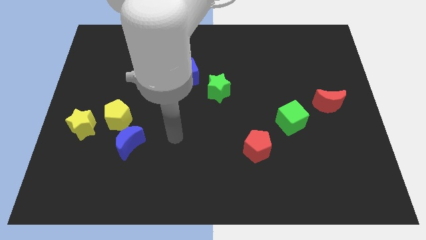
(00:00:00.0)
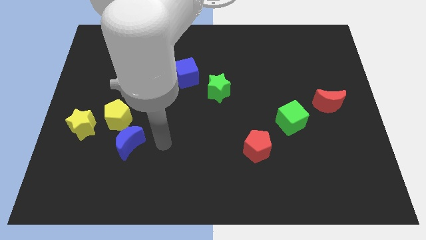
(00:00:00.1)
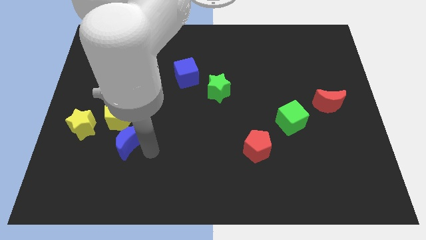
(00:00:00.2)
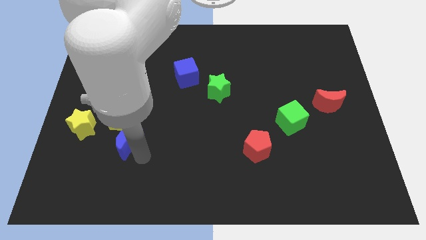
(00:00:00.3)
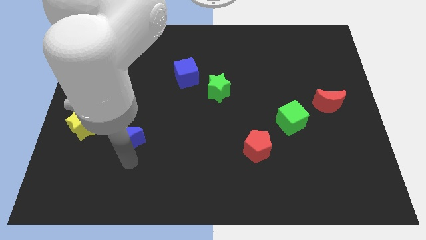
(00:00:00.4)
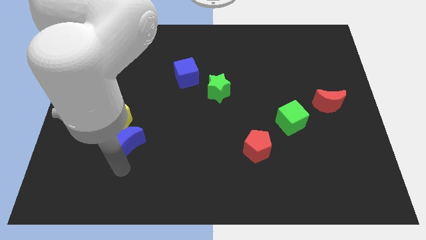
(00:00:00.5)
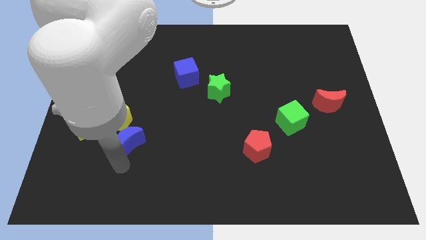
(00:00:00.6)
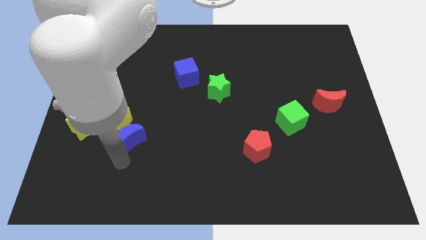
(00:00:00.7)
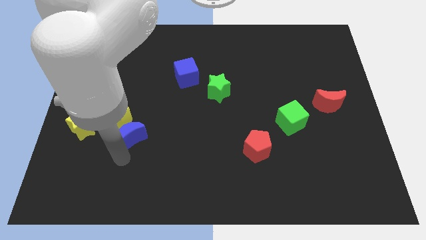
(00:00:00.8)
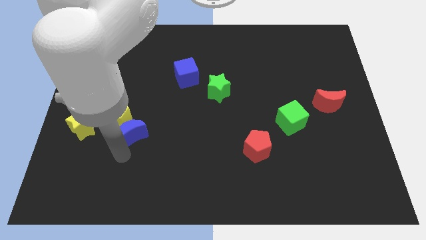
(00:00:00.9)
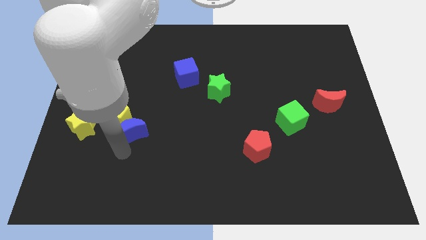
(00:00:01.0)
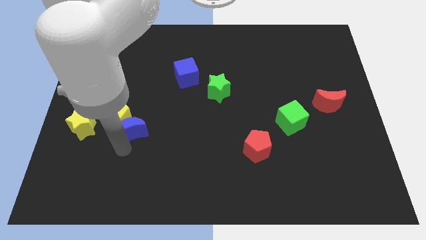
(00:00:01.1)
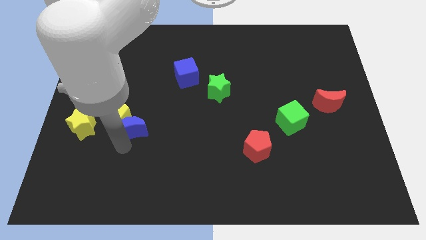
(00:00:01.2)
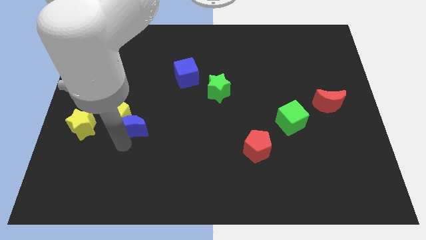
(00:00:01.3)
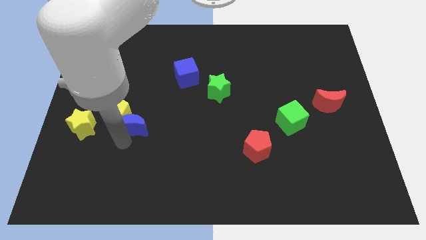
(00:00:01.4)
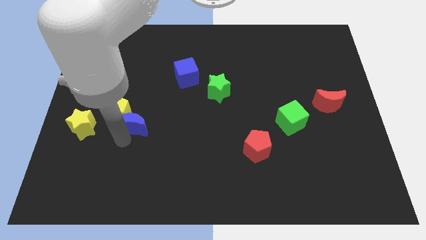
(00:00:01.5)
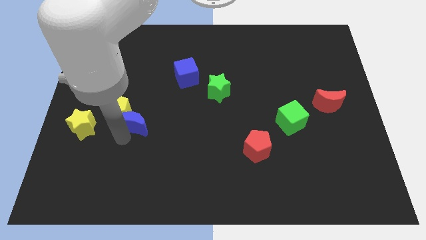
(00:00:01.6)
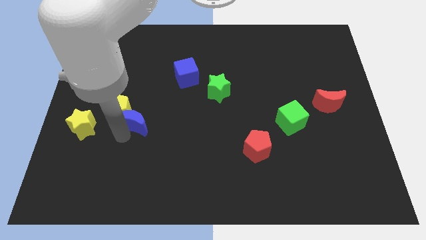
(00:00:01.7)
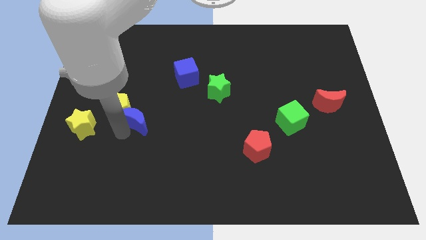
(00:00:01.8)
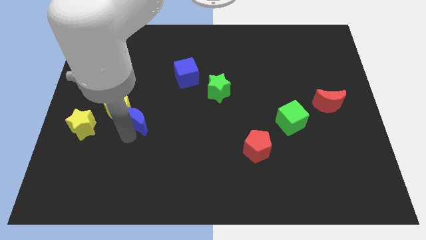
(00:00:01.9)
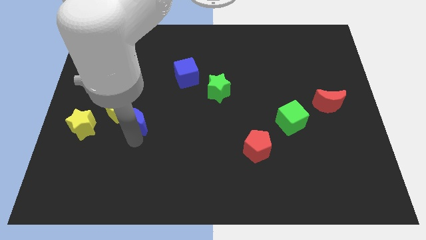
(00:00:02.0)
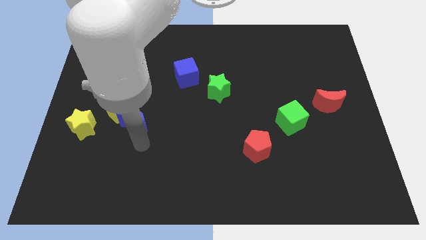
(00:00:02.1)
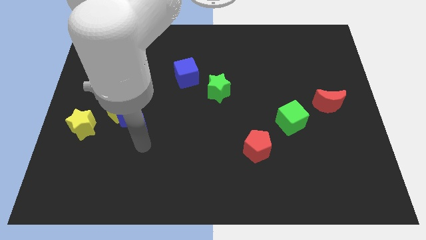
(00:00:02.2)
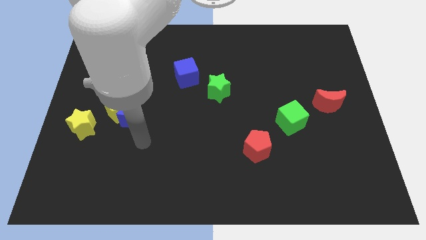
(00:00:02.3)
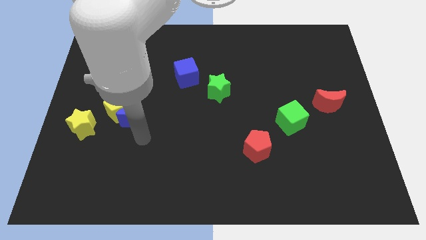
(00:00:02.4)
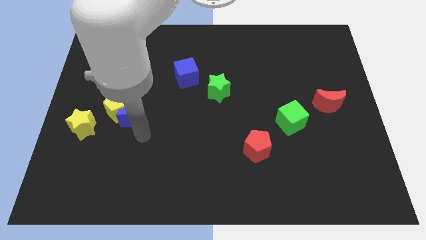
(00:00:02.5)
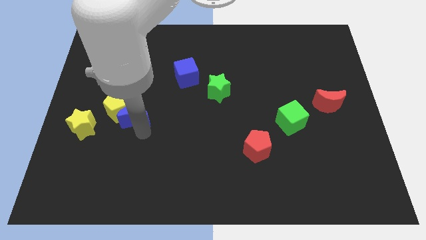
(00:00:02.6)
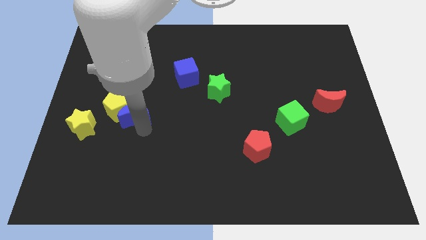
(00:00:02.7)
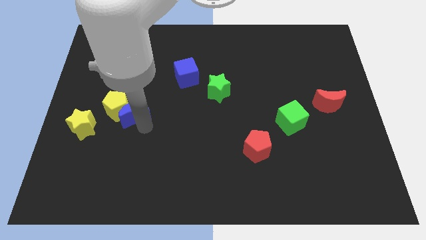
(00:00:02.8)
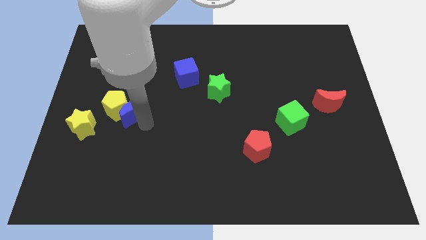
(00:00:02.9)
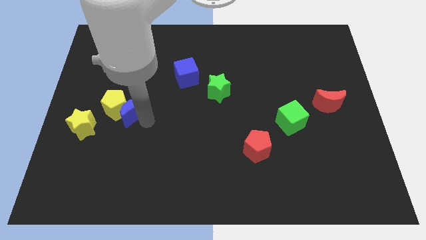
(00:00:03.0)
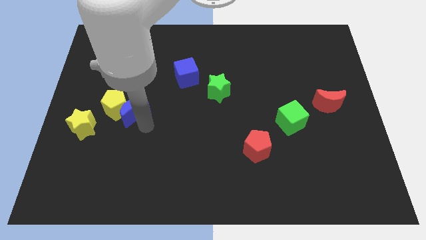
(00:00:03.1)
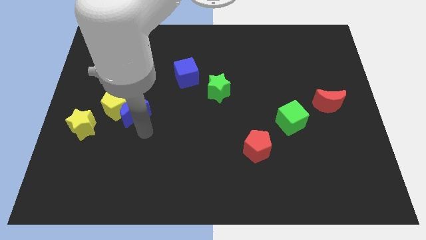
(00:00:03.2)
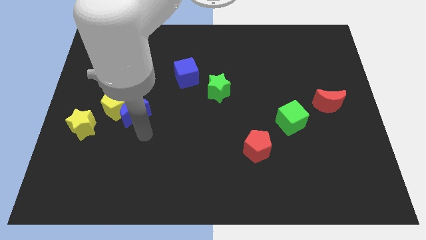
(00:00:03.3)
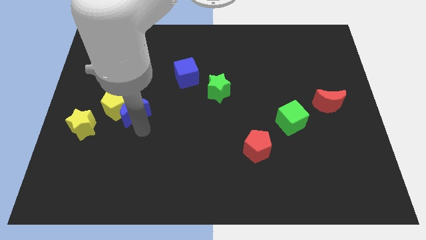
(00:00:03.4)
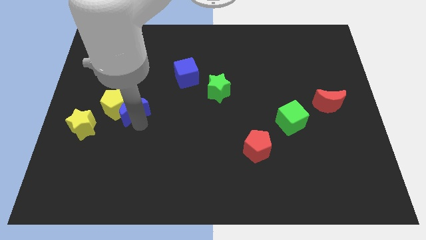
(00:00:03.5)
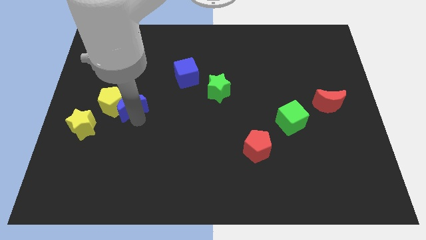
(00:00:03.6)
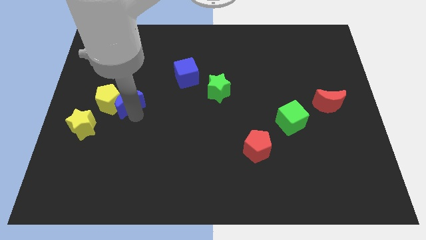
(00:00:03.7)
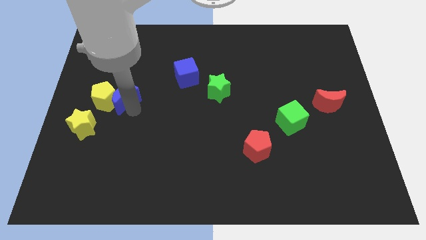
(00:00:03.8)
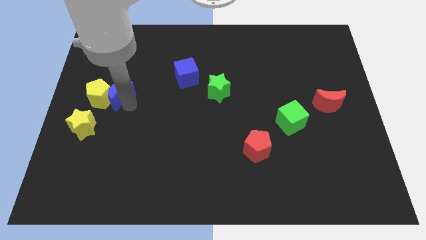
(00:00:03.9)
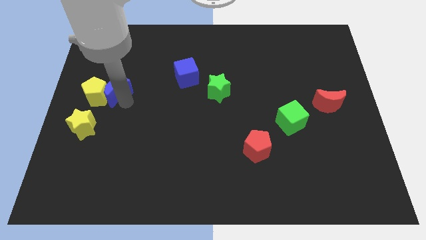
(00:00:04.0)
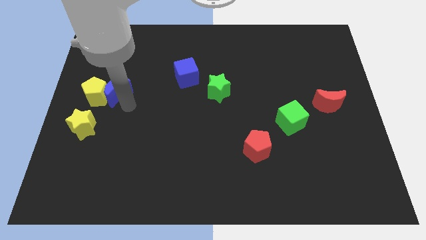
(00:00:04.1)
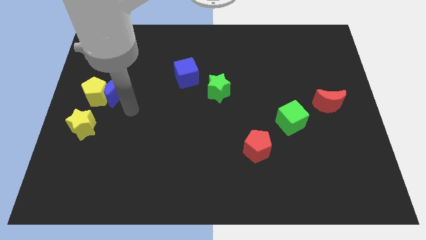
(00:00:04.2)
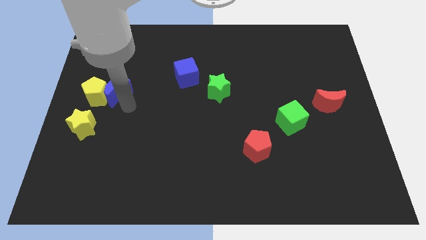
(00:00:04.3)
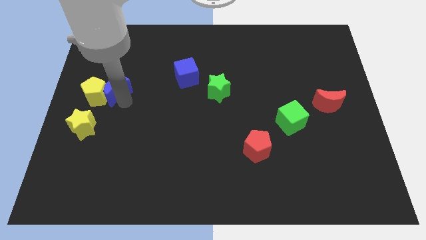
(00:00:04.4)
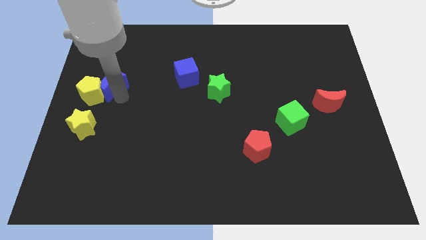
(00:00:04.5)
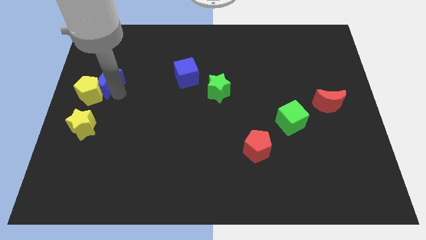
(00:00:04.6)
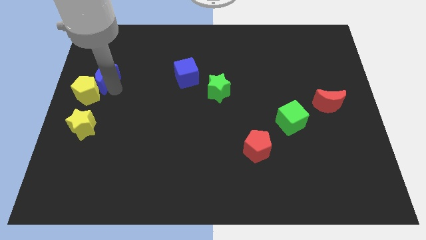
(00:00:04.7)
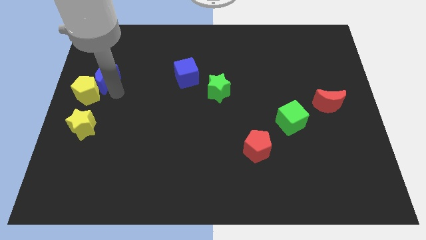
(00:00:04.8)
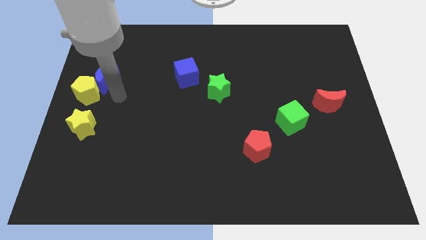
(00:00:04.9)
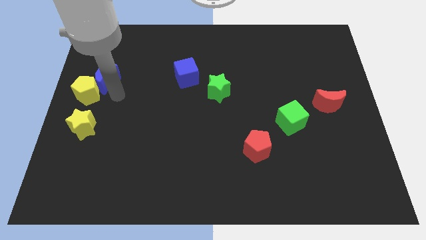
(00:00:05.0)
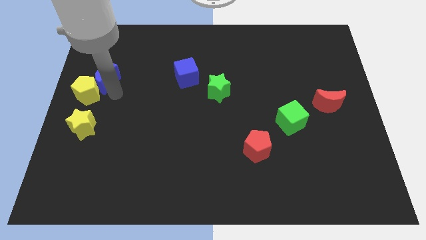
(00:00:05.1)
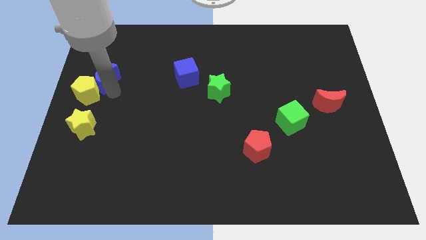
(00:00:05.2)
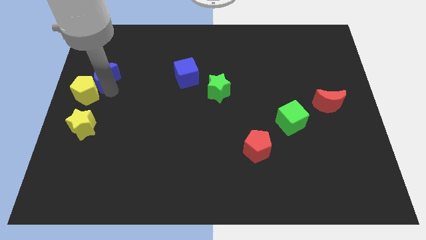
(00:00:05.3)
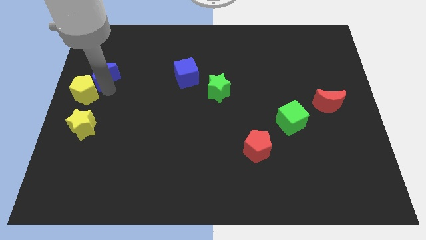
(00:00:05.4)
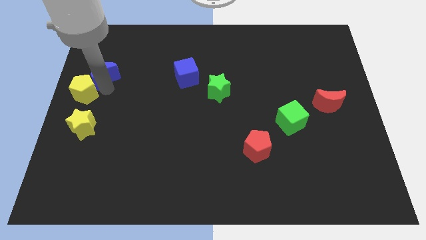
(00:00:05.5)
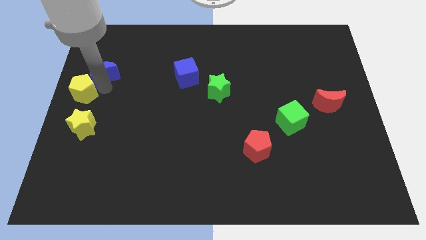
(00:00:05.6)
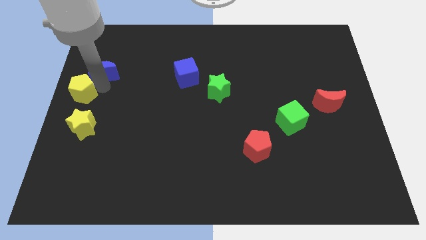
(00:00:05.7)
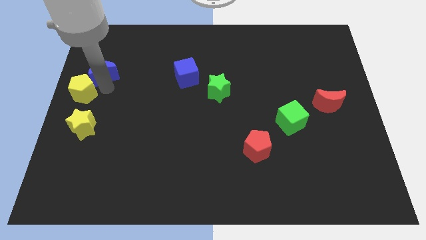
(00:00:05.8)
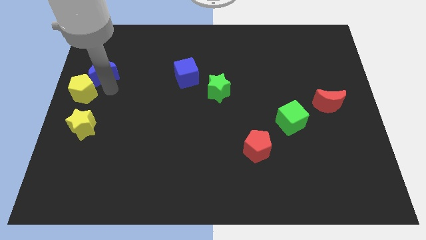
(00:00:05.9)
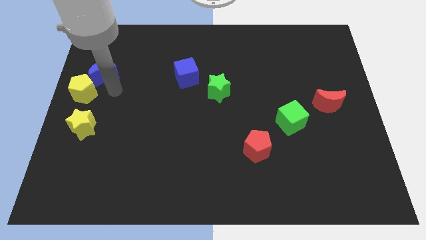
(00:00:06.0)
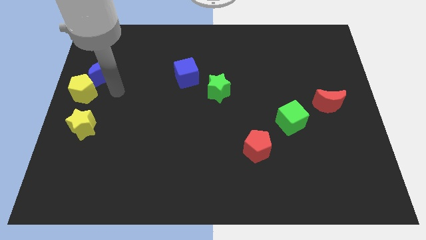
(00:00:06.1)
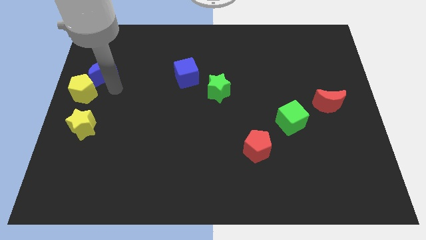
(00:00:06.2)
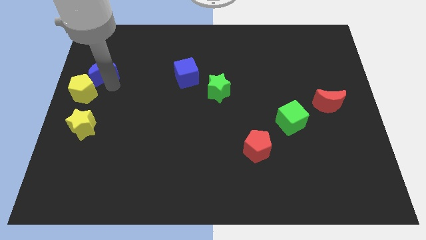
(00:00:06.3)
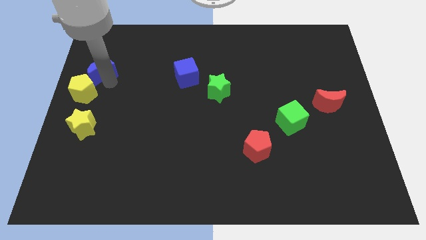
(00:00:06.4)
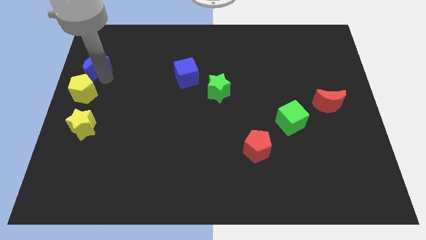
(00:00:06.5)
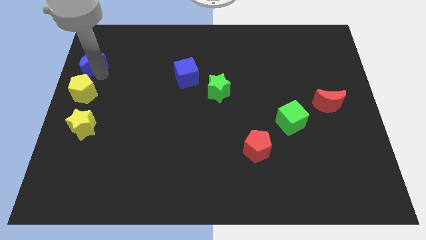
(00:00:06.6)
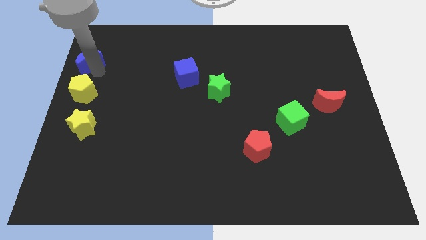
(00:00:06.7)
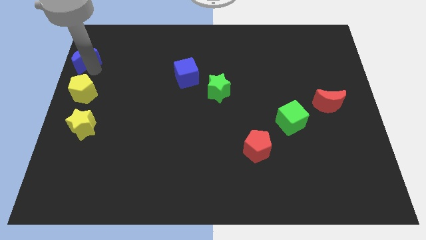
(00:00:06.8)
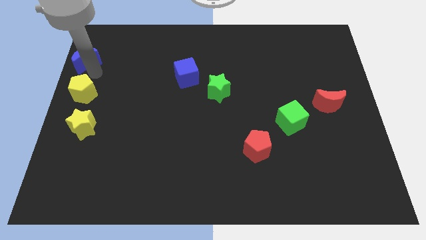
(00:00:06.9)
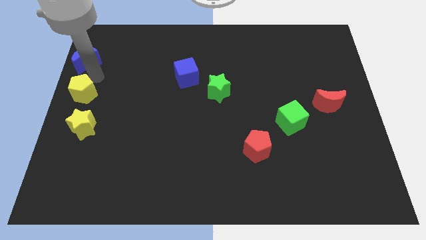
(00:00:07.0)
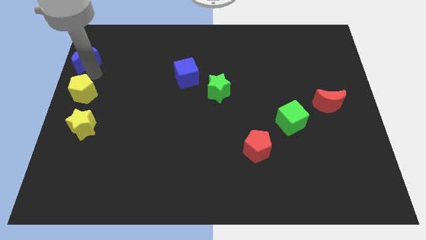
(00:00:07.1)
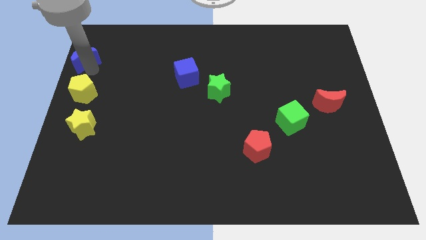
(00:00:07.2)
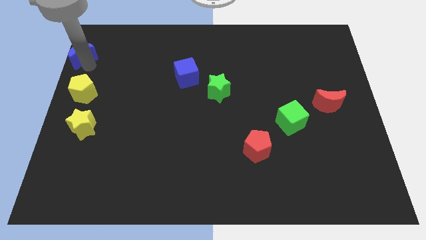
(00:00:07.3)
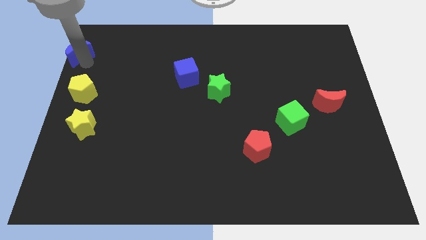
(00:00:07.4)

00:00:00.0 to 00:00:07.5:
slide the blue moon to the top left of the board
